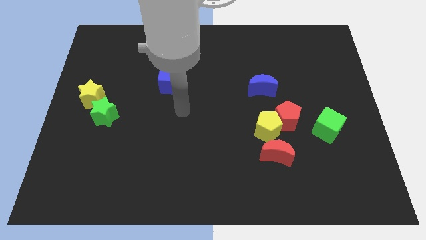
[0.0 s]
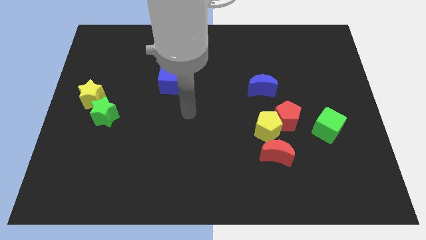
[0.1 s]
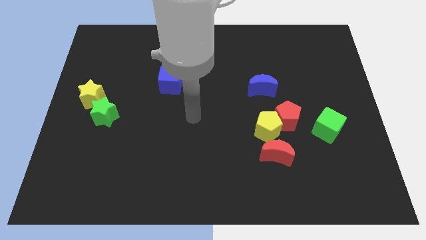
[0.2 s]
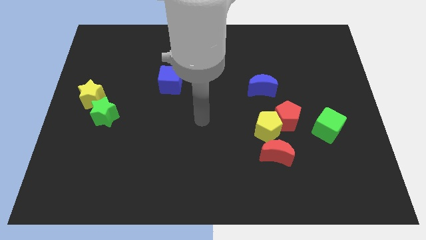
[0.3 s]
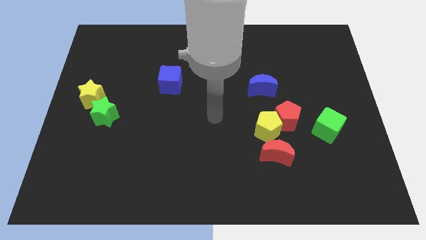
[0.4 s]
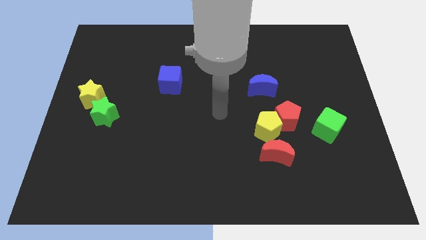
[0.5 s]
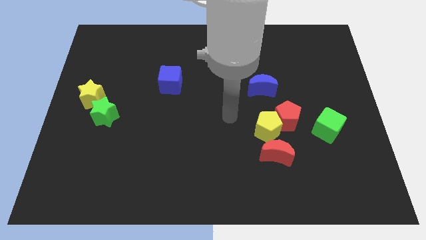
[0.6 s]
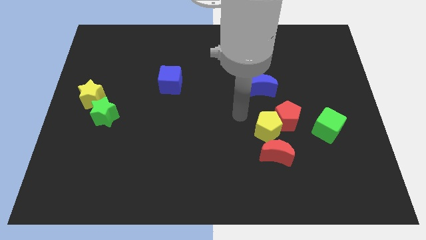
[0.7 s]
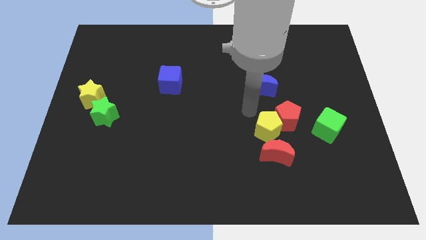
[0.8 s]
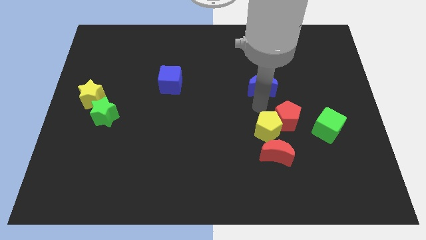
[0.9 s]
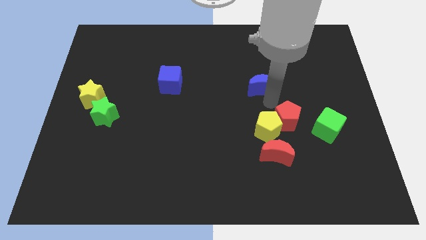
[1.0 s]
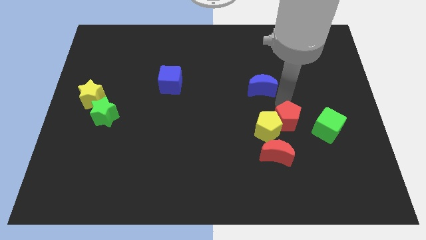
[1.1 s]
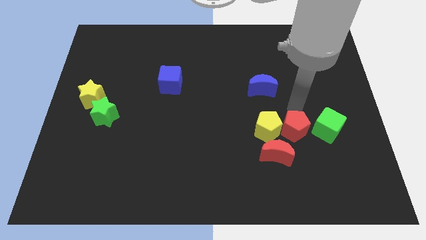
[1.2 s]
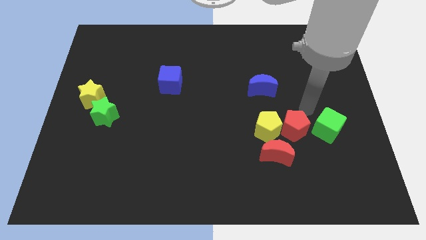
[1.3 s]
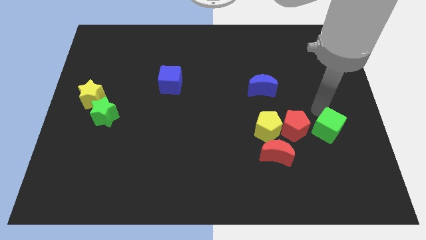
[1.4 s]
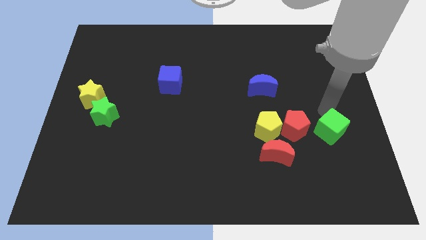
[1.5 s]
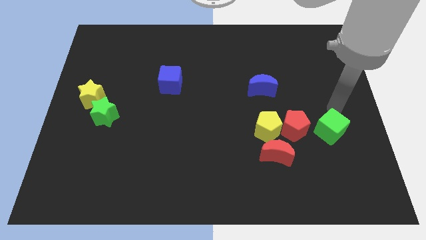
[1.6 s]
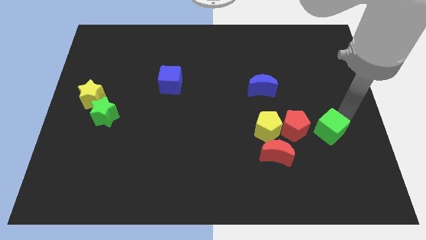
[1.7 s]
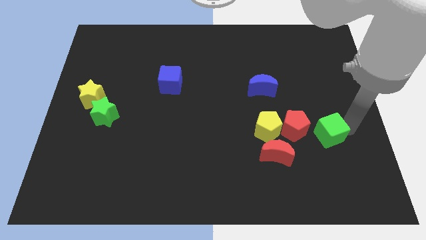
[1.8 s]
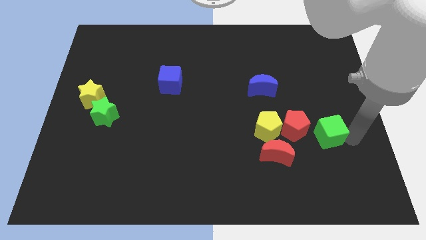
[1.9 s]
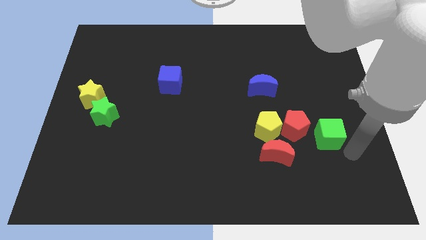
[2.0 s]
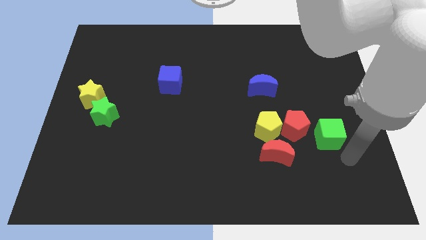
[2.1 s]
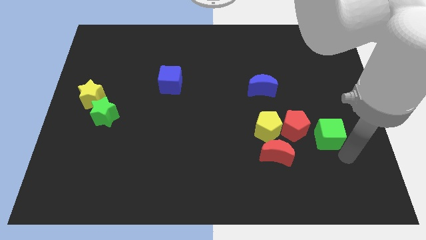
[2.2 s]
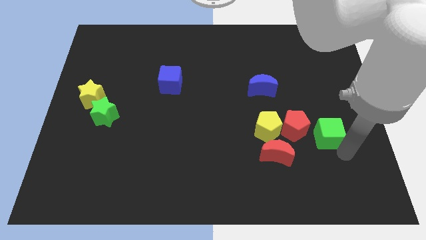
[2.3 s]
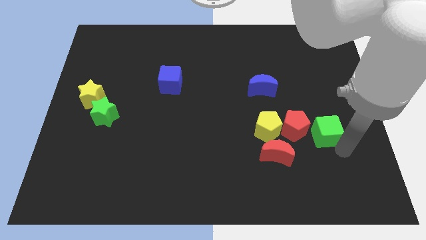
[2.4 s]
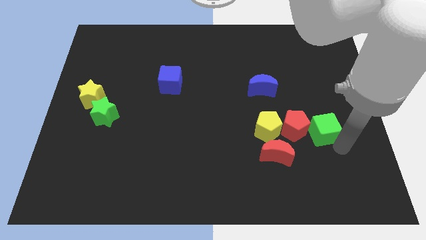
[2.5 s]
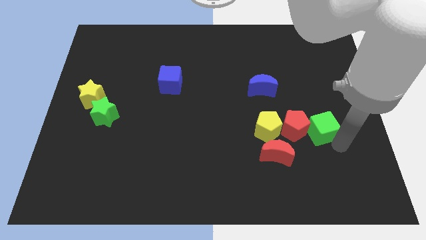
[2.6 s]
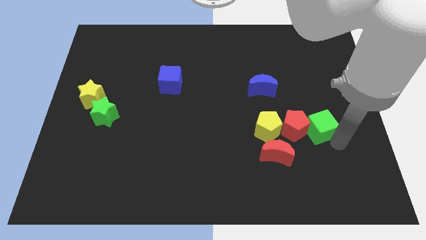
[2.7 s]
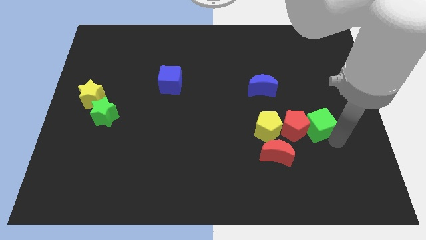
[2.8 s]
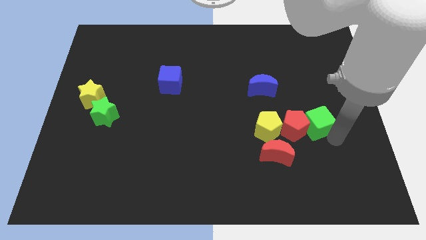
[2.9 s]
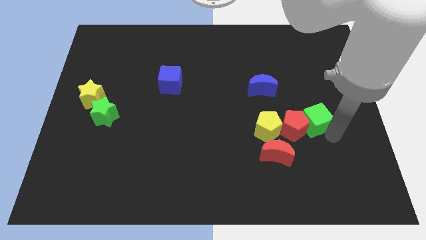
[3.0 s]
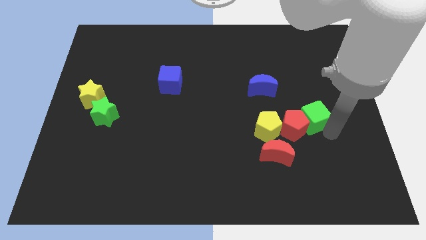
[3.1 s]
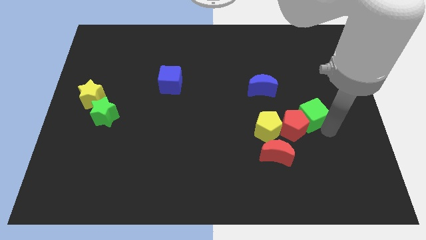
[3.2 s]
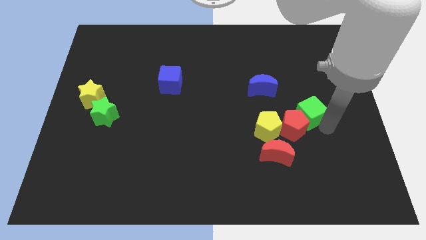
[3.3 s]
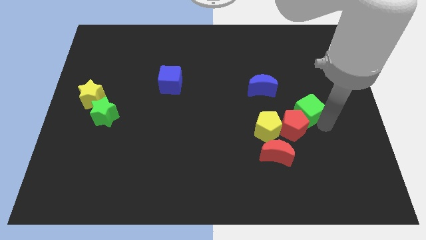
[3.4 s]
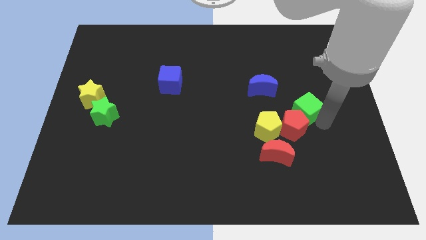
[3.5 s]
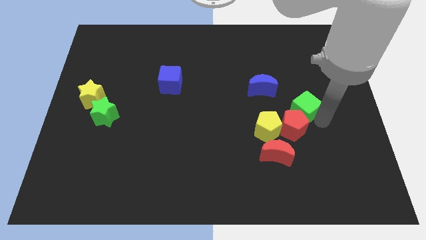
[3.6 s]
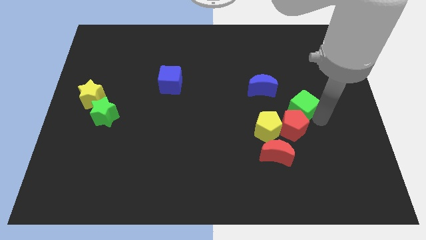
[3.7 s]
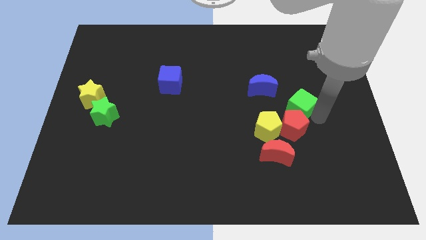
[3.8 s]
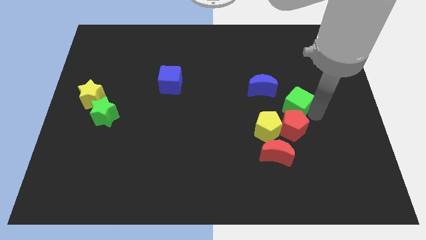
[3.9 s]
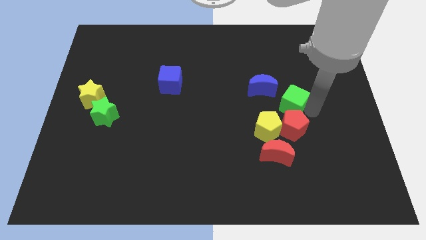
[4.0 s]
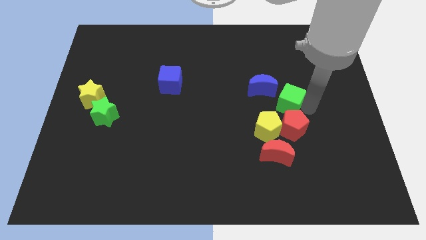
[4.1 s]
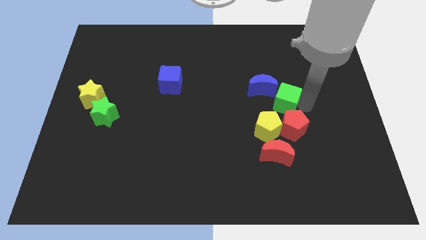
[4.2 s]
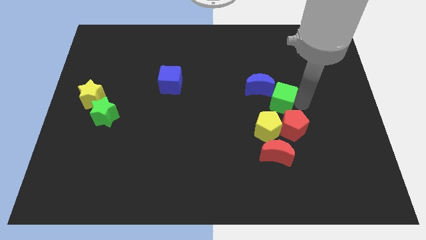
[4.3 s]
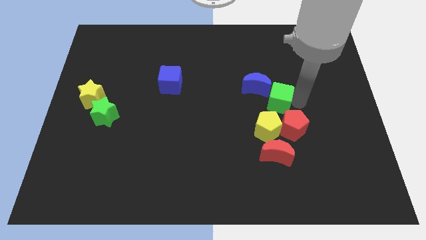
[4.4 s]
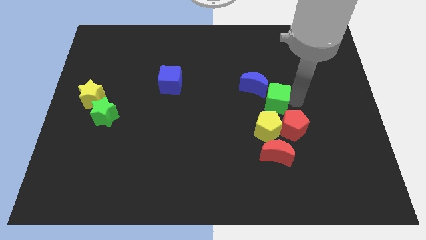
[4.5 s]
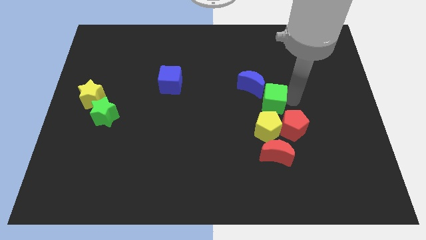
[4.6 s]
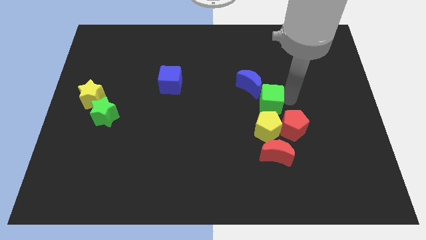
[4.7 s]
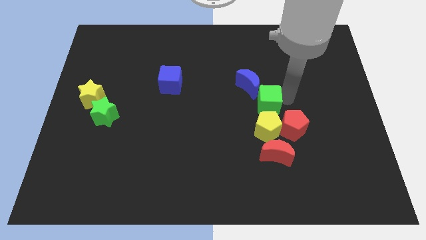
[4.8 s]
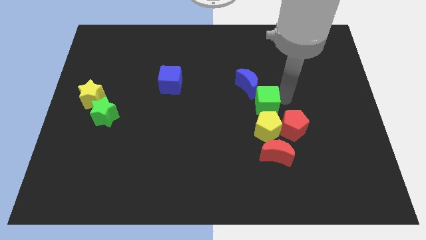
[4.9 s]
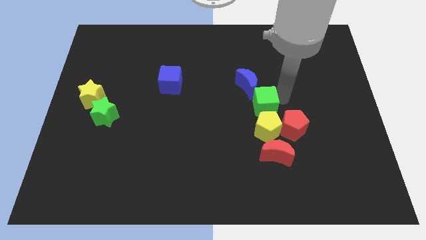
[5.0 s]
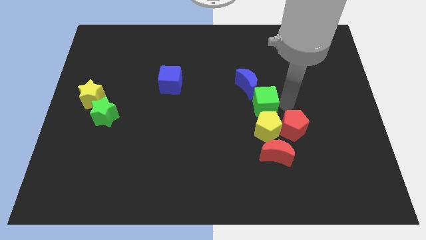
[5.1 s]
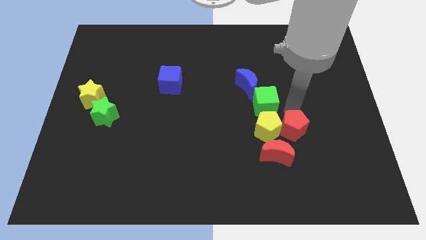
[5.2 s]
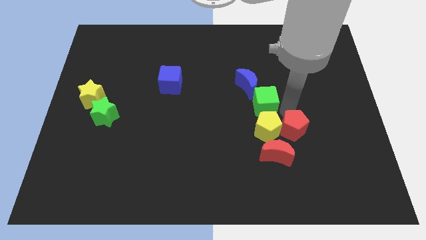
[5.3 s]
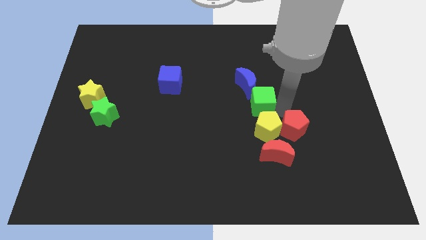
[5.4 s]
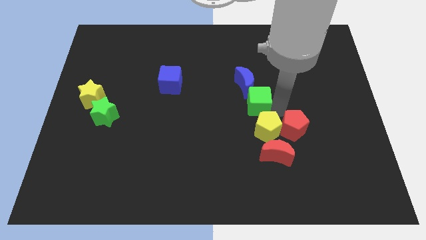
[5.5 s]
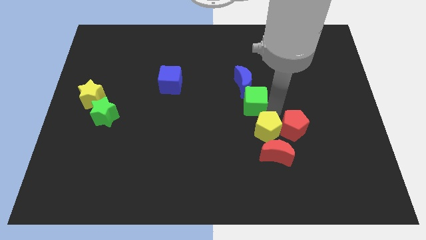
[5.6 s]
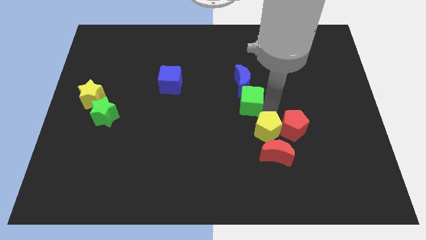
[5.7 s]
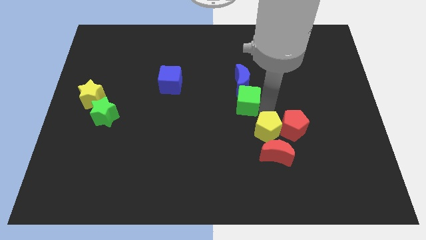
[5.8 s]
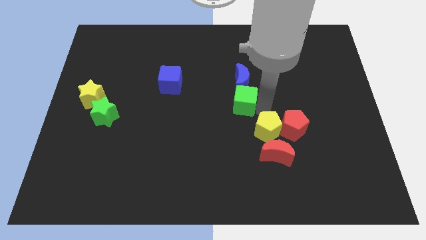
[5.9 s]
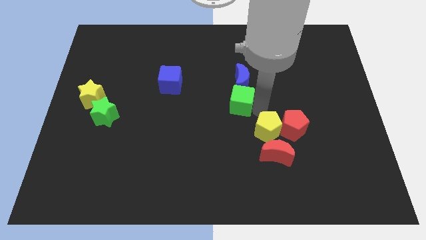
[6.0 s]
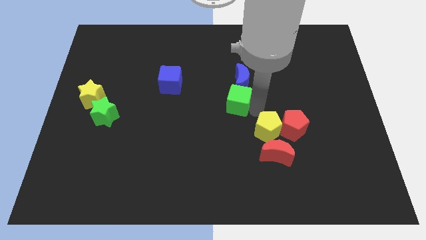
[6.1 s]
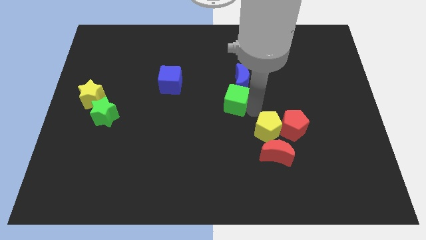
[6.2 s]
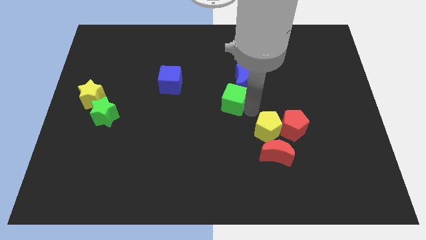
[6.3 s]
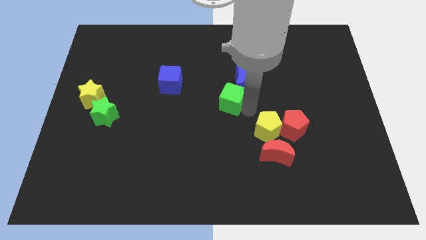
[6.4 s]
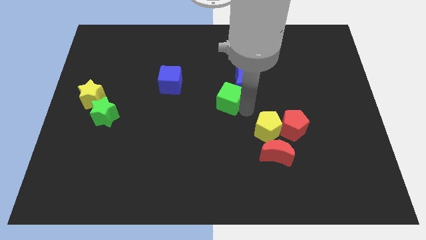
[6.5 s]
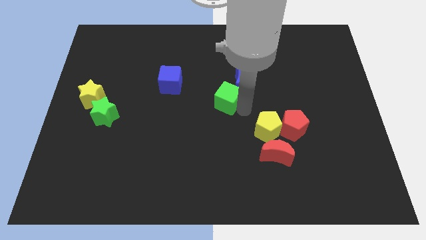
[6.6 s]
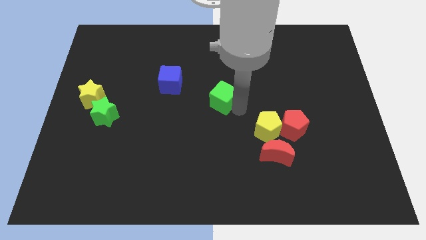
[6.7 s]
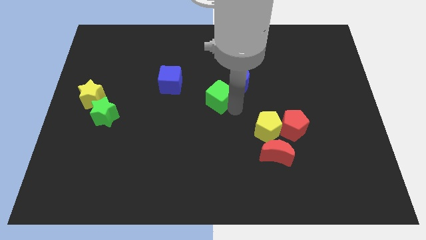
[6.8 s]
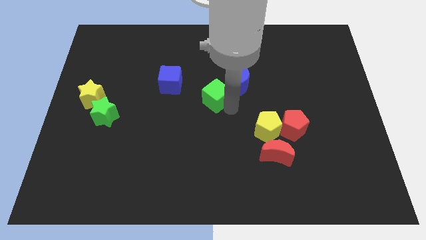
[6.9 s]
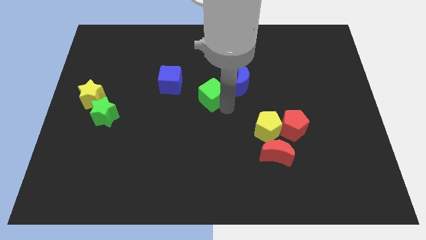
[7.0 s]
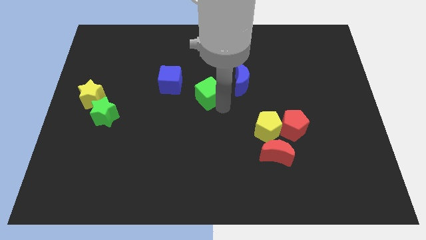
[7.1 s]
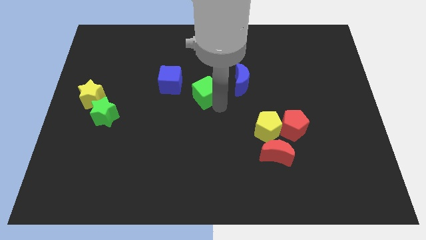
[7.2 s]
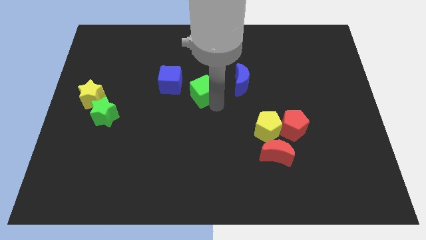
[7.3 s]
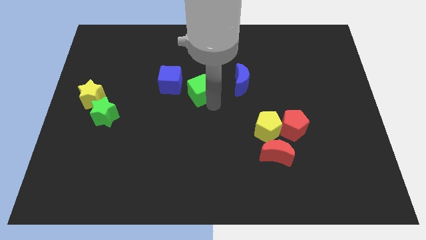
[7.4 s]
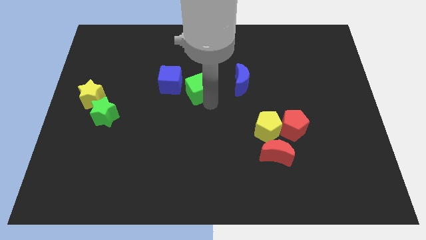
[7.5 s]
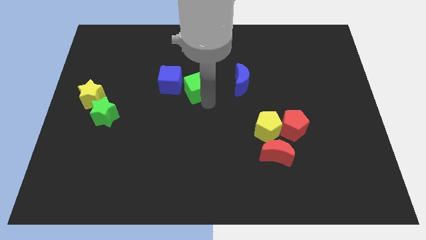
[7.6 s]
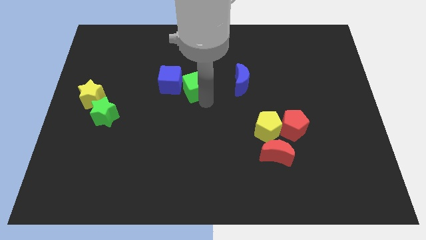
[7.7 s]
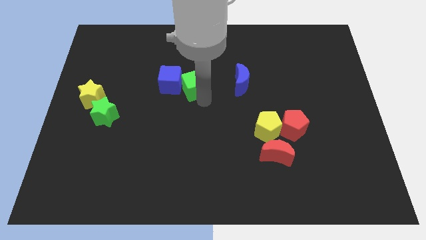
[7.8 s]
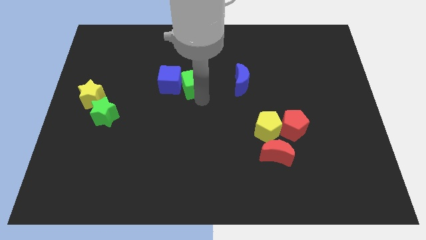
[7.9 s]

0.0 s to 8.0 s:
put the green cube diagonally up and to the right of the blue cube
